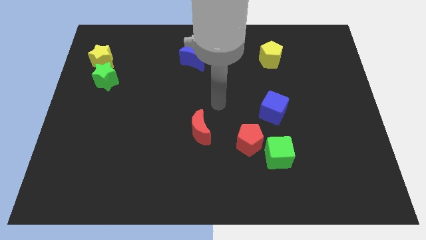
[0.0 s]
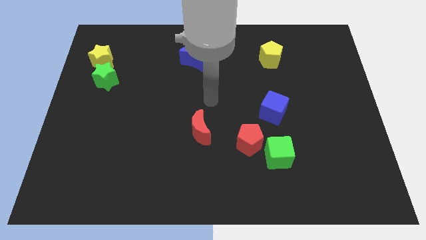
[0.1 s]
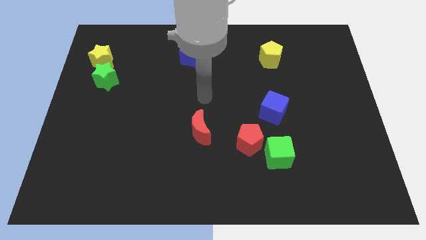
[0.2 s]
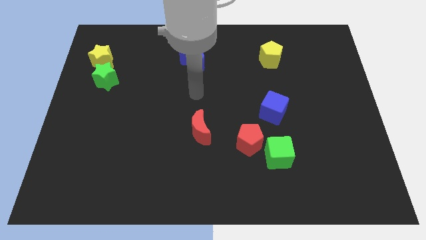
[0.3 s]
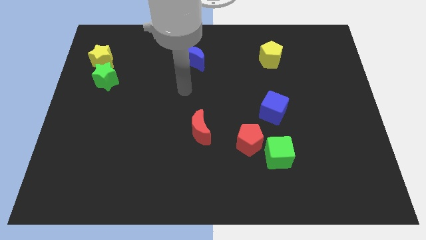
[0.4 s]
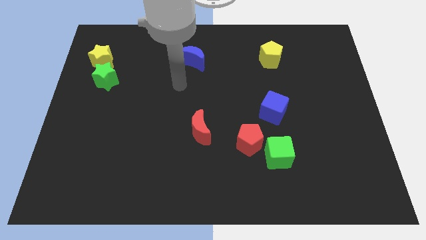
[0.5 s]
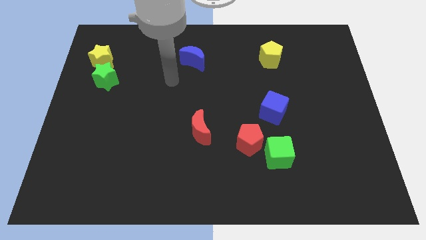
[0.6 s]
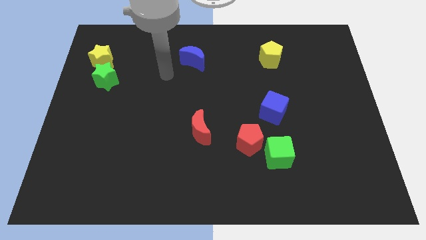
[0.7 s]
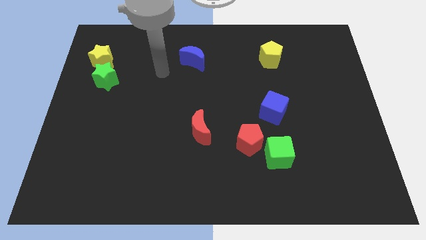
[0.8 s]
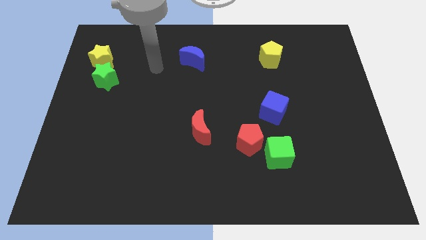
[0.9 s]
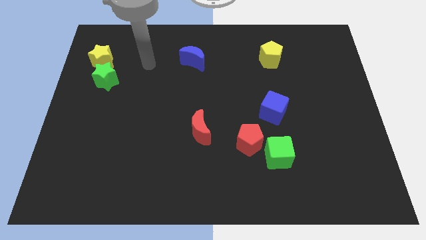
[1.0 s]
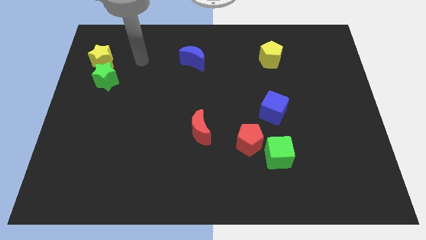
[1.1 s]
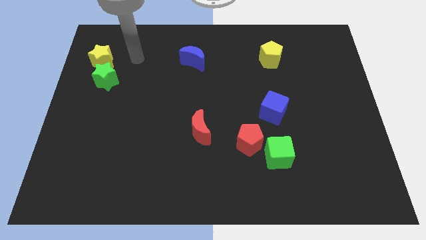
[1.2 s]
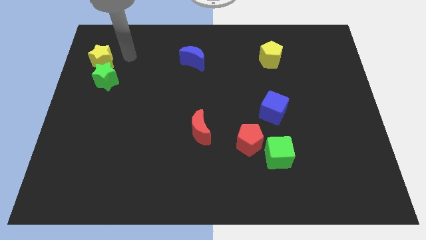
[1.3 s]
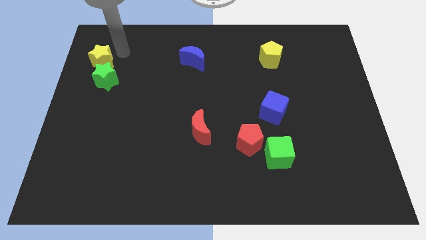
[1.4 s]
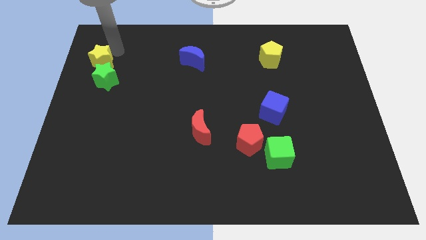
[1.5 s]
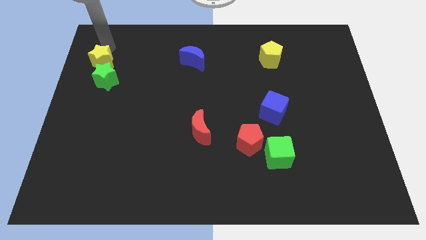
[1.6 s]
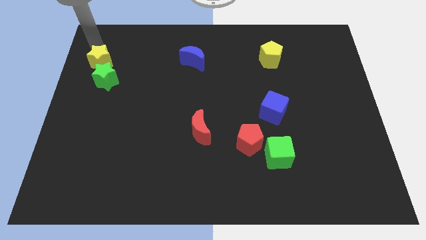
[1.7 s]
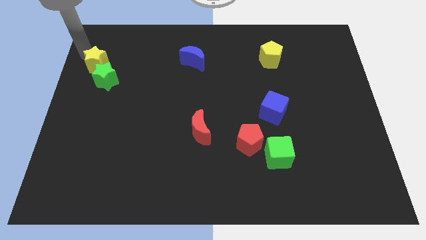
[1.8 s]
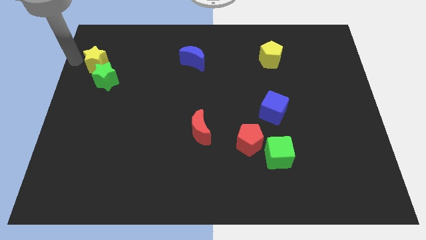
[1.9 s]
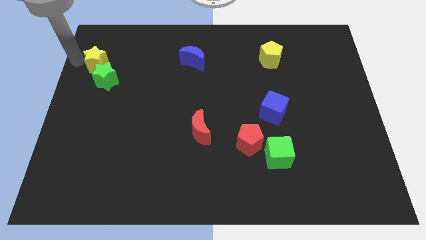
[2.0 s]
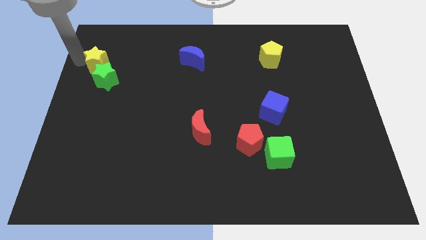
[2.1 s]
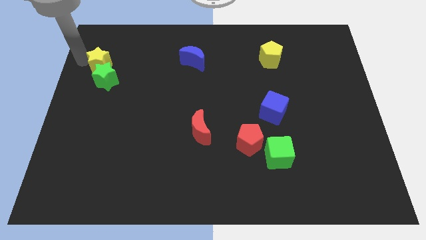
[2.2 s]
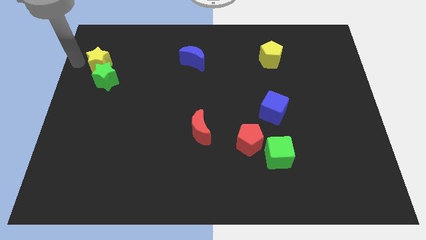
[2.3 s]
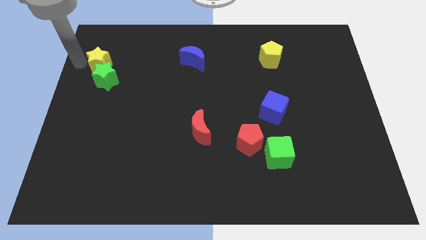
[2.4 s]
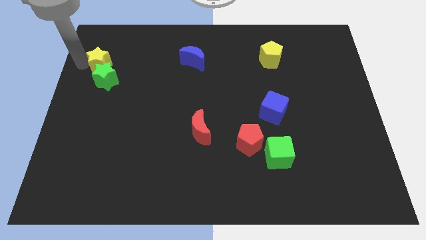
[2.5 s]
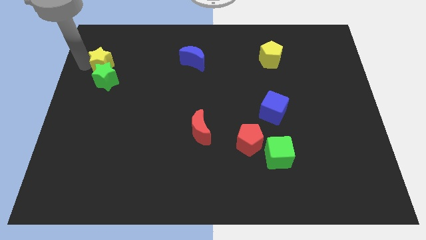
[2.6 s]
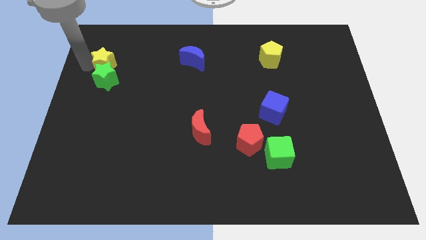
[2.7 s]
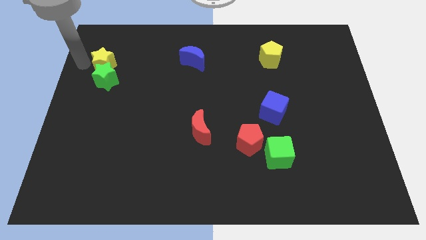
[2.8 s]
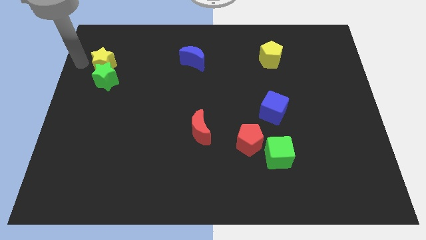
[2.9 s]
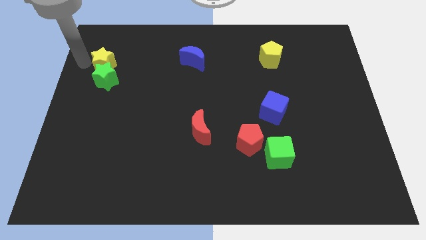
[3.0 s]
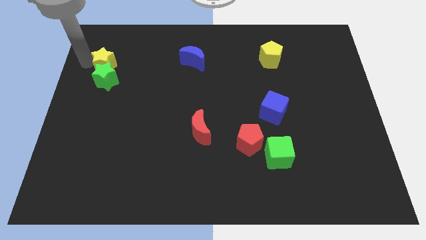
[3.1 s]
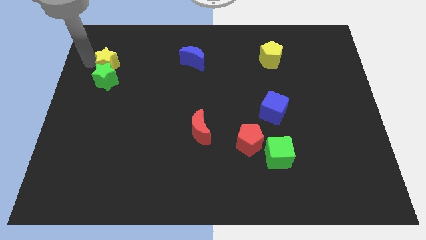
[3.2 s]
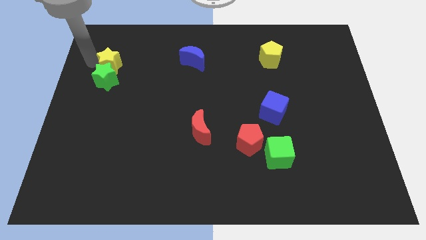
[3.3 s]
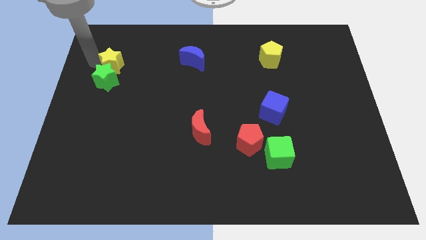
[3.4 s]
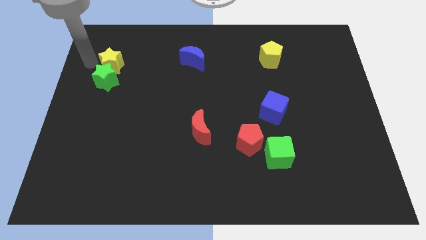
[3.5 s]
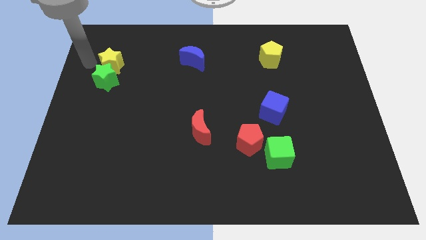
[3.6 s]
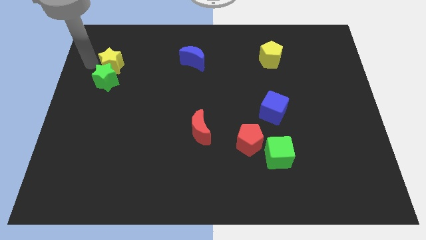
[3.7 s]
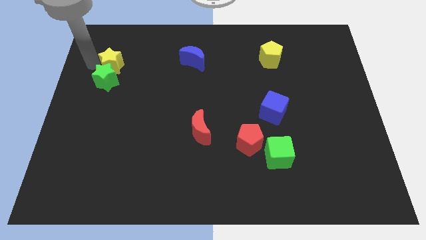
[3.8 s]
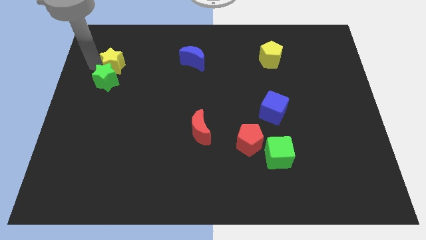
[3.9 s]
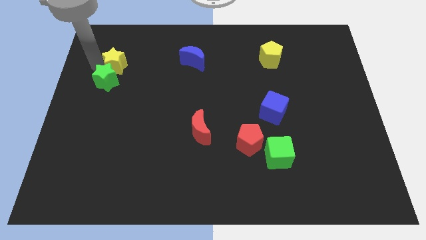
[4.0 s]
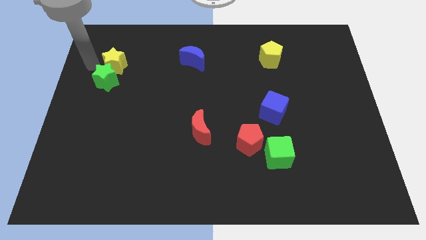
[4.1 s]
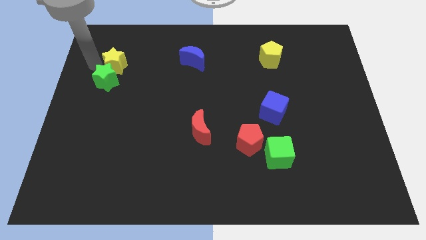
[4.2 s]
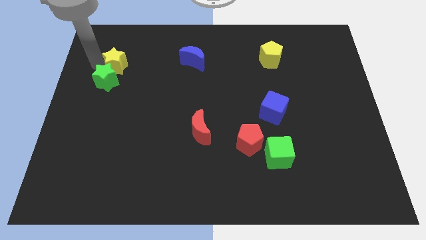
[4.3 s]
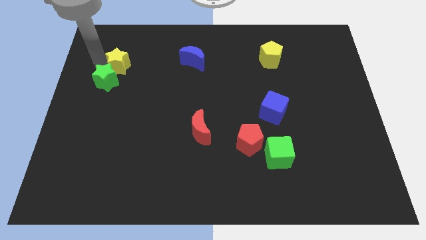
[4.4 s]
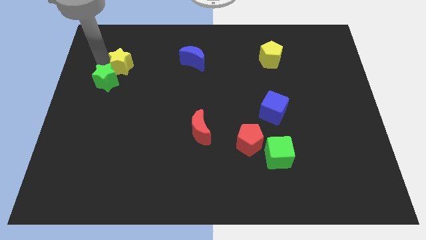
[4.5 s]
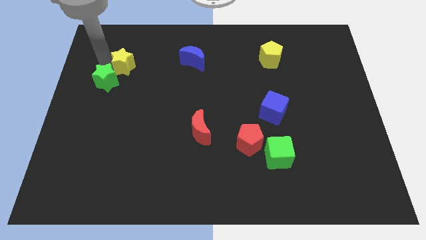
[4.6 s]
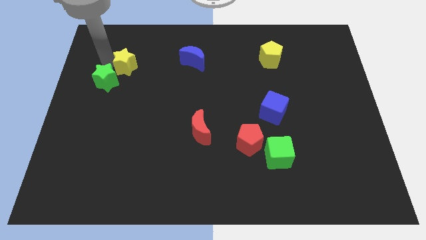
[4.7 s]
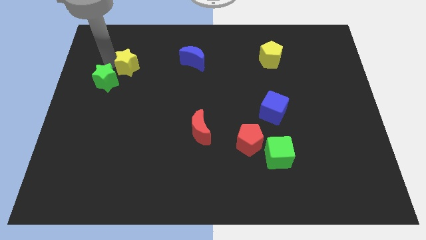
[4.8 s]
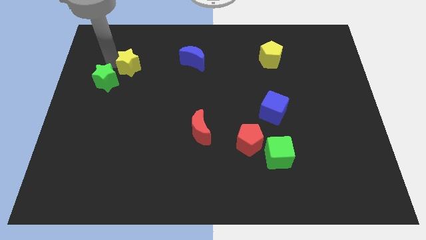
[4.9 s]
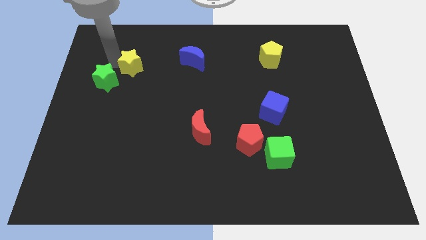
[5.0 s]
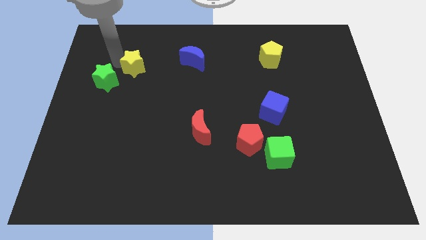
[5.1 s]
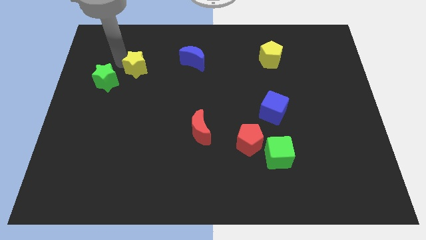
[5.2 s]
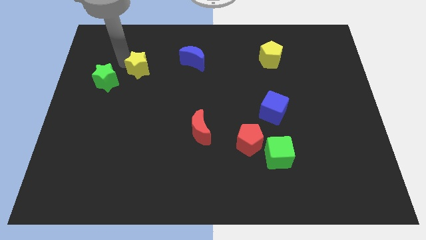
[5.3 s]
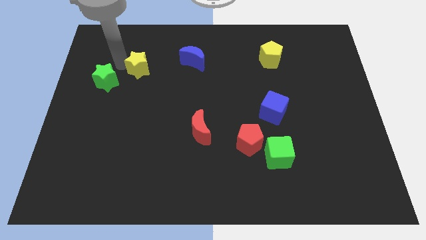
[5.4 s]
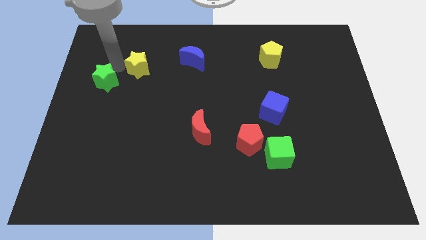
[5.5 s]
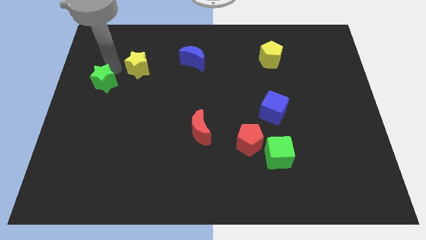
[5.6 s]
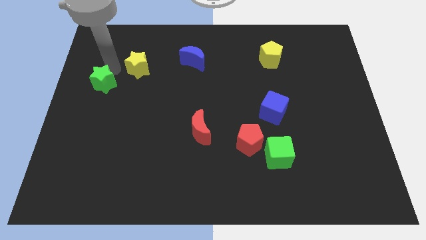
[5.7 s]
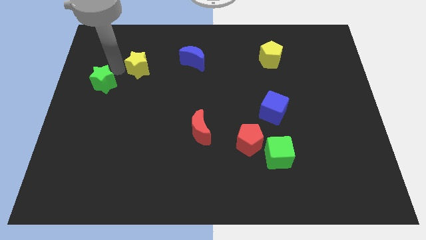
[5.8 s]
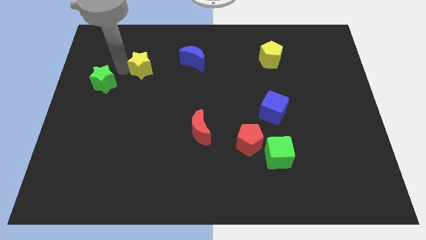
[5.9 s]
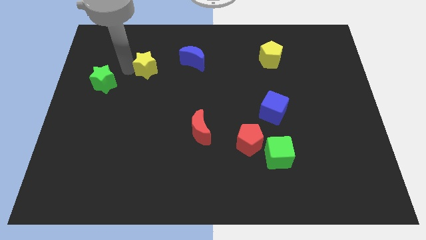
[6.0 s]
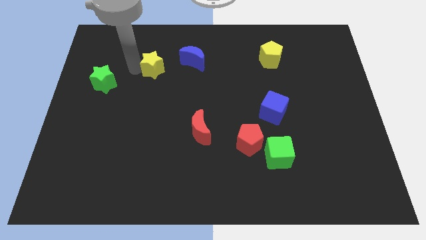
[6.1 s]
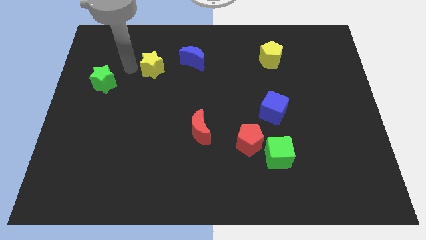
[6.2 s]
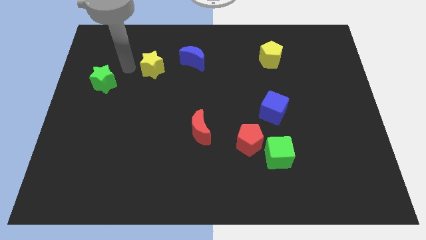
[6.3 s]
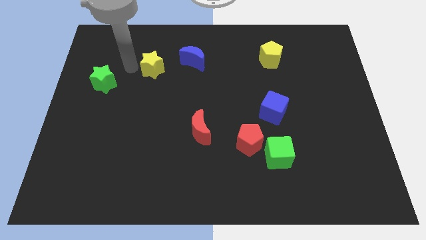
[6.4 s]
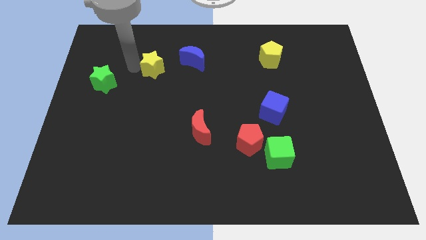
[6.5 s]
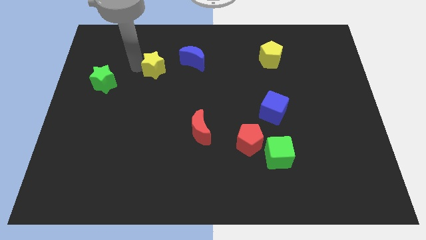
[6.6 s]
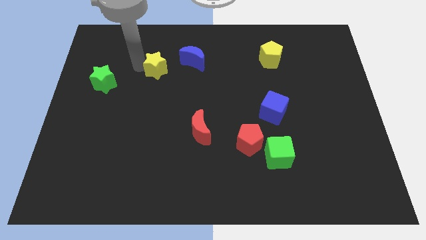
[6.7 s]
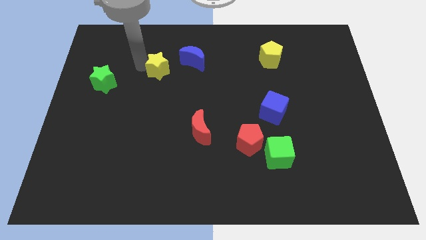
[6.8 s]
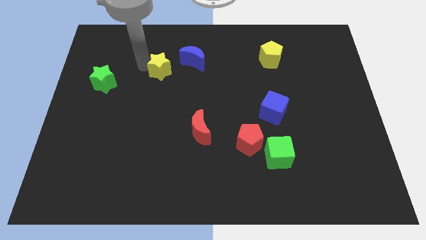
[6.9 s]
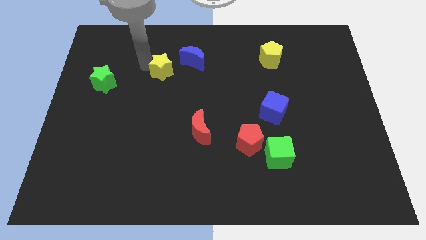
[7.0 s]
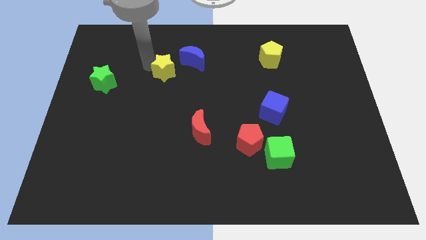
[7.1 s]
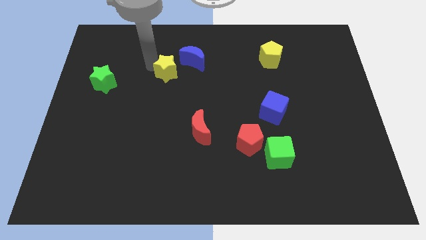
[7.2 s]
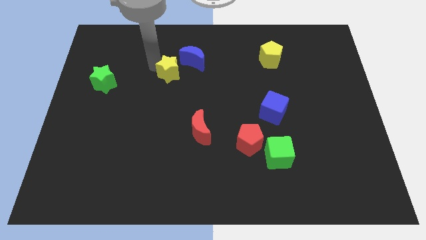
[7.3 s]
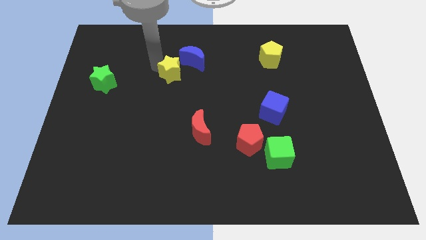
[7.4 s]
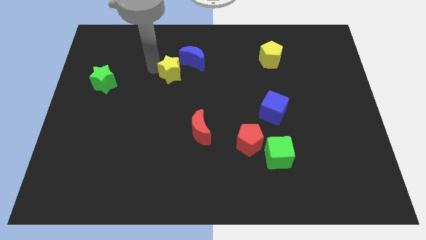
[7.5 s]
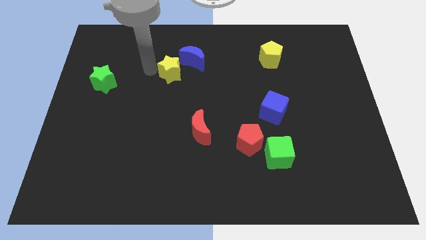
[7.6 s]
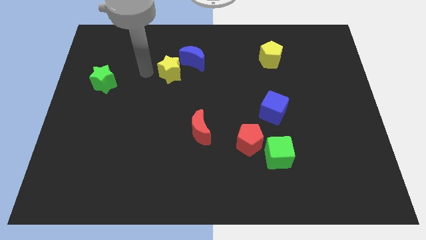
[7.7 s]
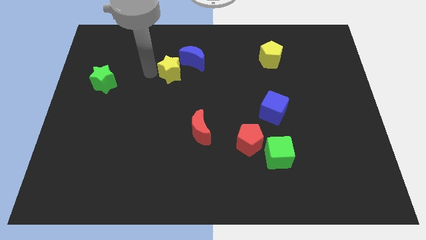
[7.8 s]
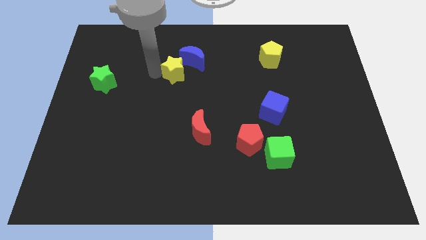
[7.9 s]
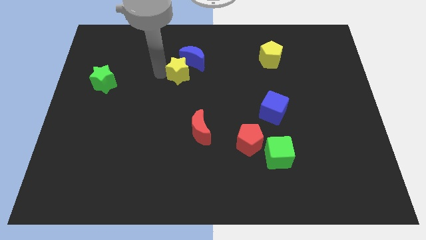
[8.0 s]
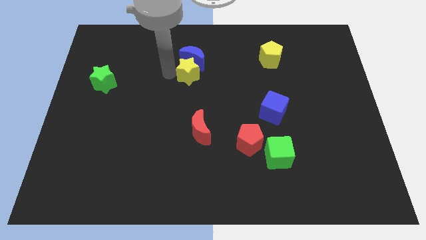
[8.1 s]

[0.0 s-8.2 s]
slide the yellow star right
